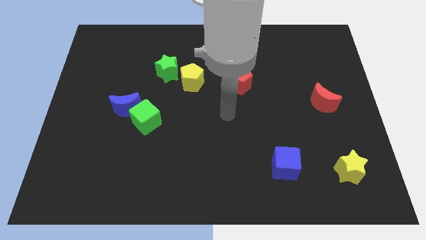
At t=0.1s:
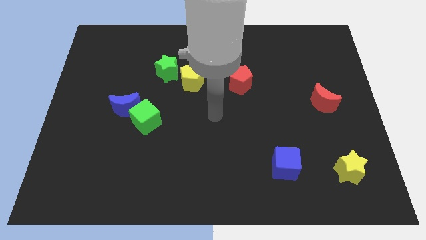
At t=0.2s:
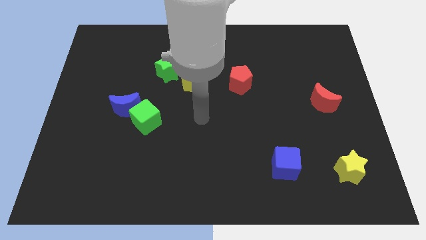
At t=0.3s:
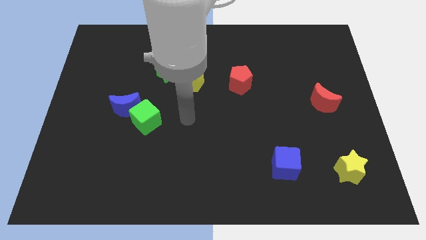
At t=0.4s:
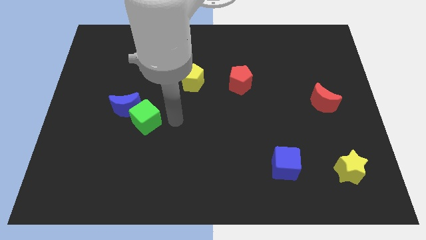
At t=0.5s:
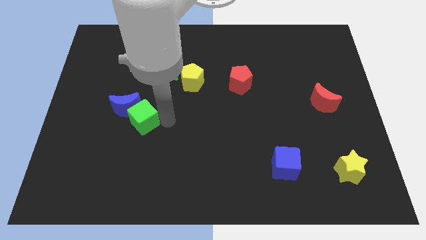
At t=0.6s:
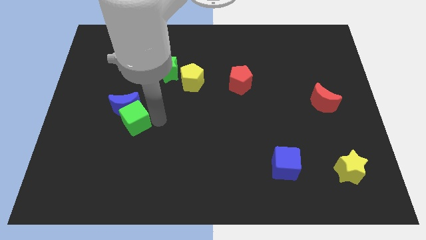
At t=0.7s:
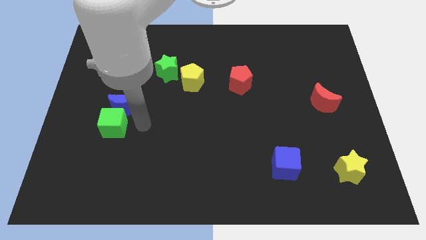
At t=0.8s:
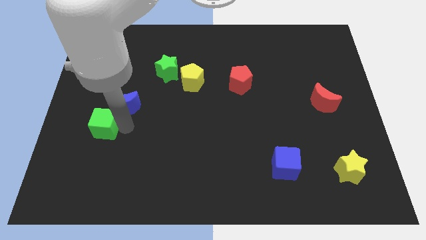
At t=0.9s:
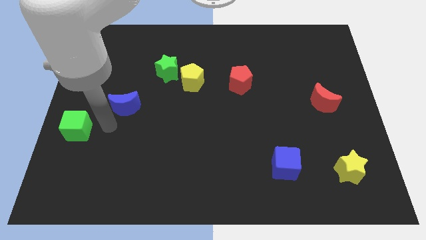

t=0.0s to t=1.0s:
pull the blue moon apart from the green cube

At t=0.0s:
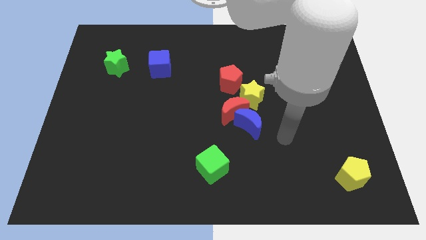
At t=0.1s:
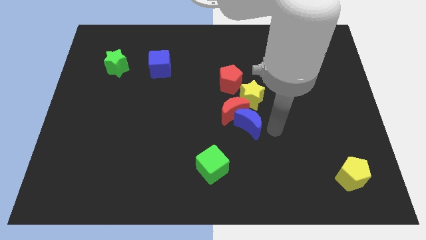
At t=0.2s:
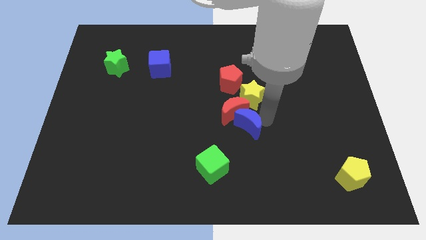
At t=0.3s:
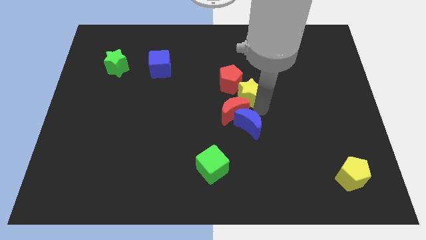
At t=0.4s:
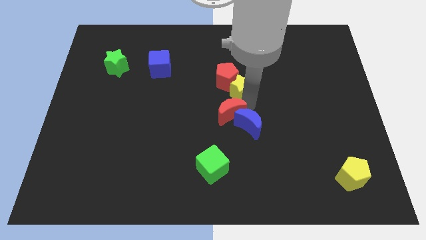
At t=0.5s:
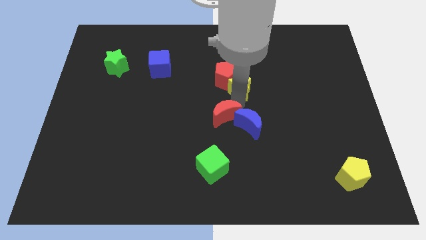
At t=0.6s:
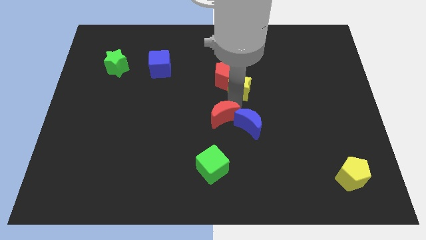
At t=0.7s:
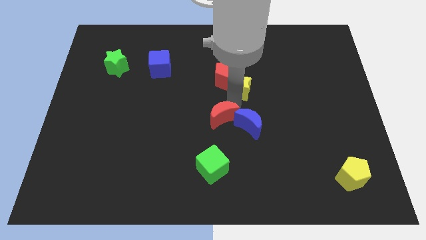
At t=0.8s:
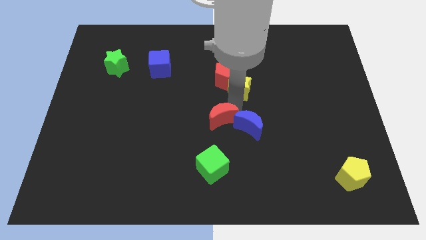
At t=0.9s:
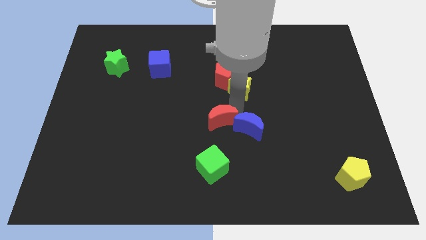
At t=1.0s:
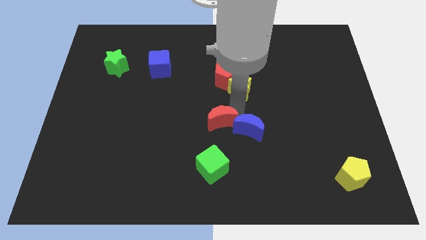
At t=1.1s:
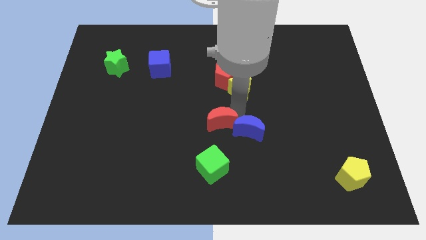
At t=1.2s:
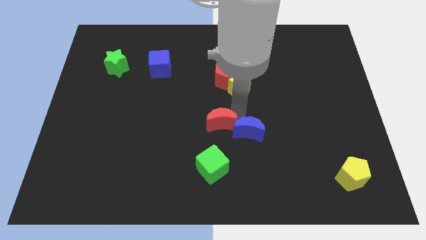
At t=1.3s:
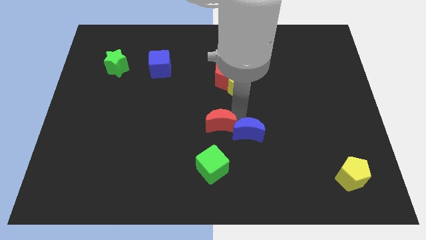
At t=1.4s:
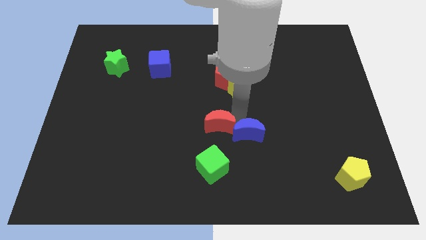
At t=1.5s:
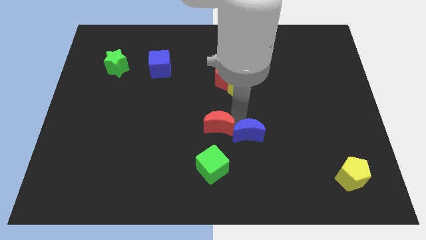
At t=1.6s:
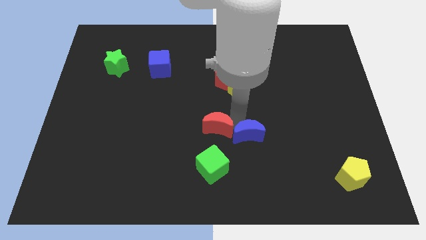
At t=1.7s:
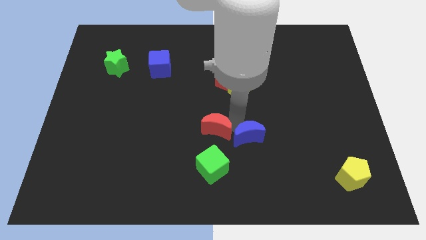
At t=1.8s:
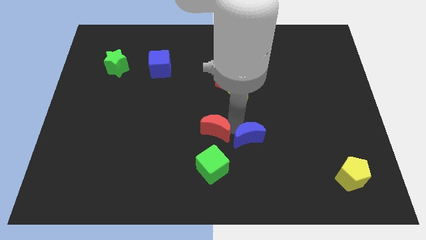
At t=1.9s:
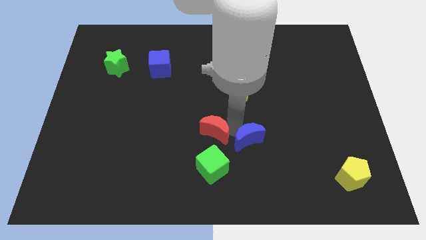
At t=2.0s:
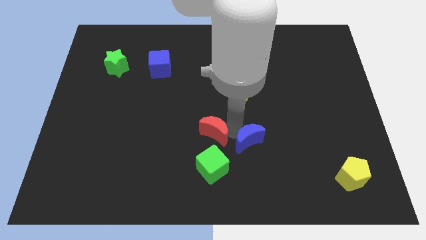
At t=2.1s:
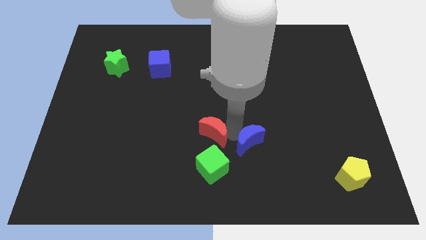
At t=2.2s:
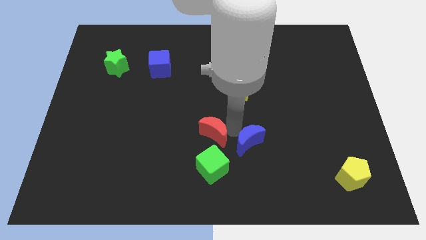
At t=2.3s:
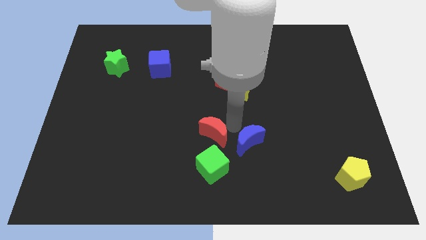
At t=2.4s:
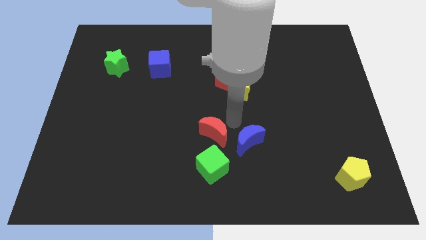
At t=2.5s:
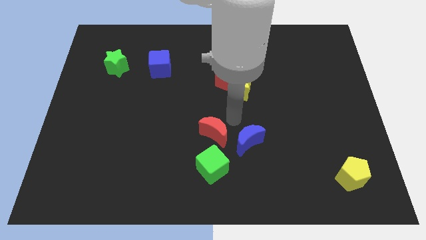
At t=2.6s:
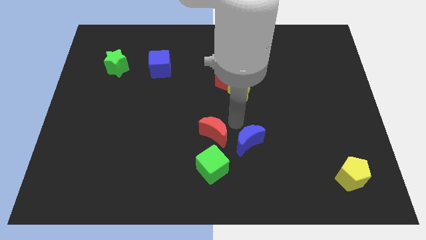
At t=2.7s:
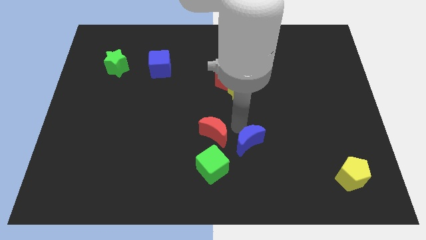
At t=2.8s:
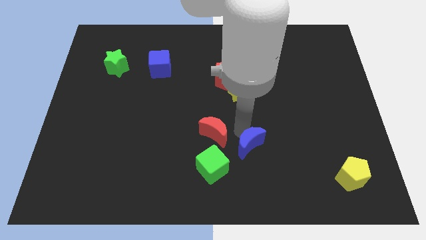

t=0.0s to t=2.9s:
separate the blue moon from the red moon and yellow star

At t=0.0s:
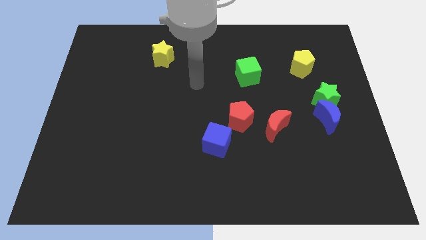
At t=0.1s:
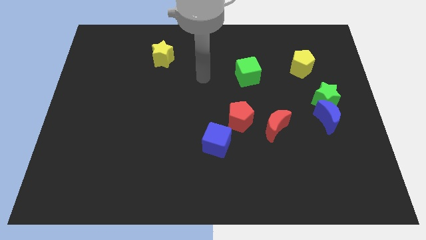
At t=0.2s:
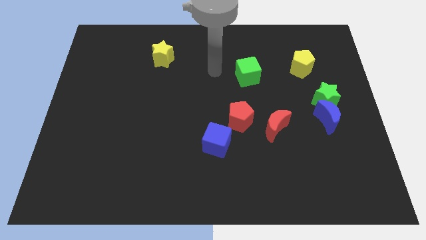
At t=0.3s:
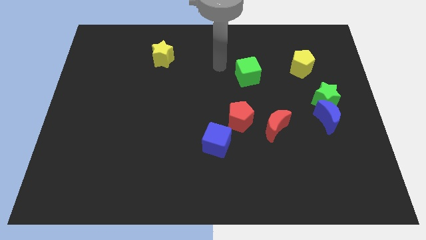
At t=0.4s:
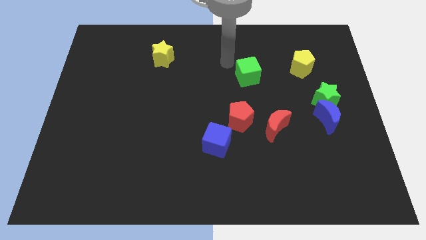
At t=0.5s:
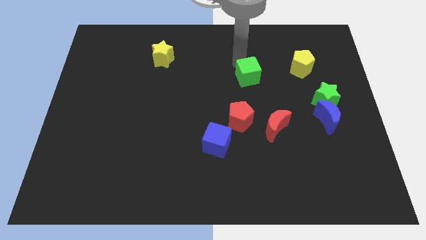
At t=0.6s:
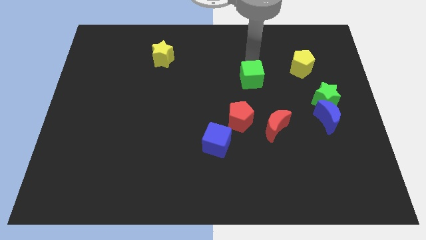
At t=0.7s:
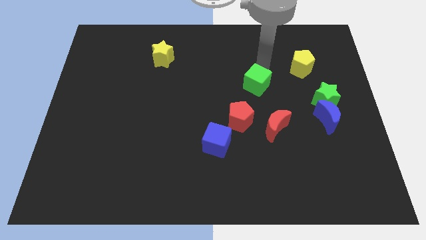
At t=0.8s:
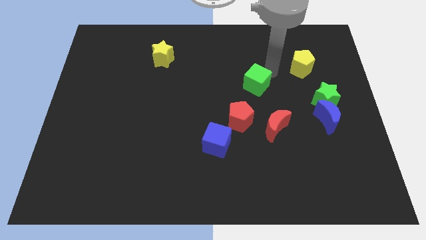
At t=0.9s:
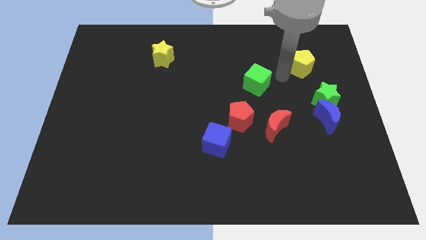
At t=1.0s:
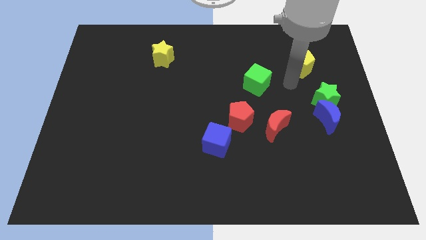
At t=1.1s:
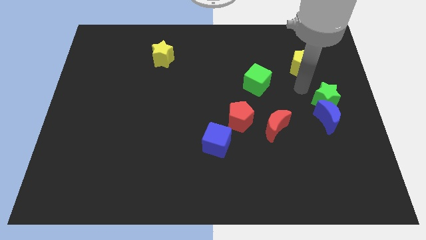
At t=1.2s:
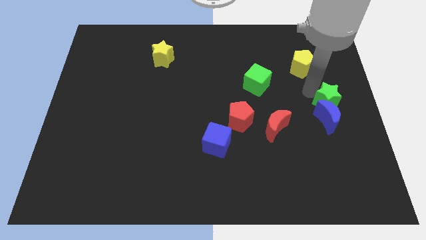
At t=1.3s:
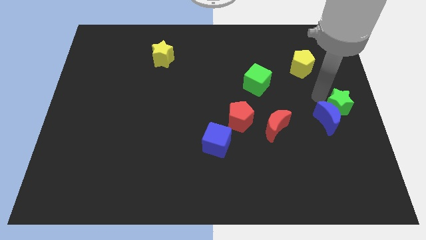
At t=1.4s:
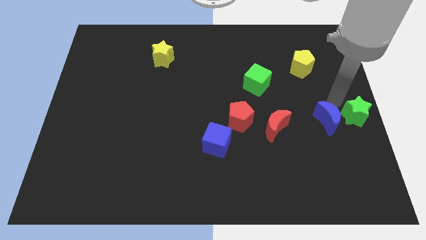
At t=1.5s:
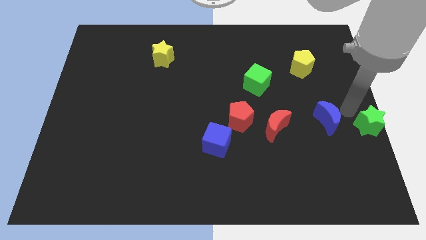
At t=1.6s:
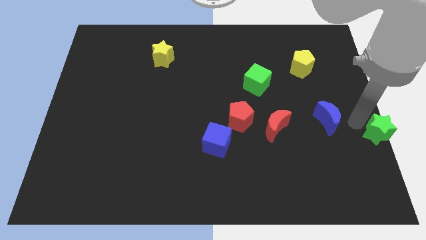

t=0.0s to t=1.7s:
move the blue moon away from the green star

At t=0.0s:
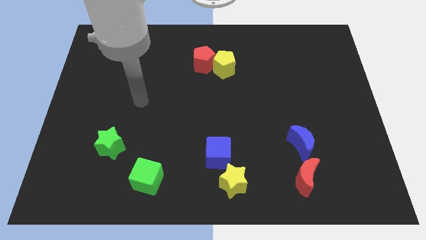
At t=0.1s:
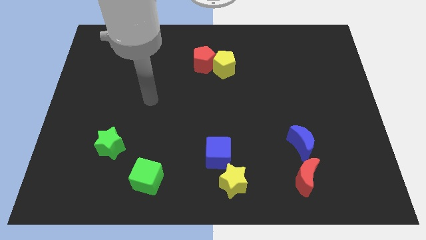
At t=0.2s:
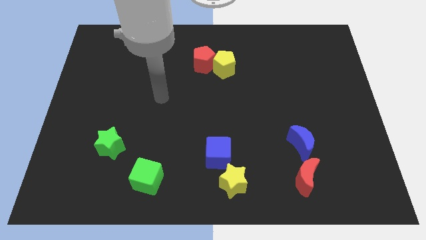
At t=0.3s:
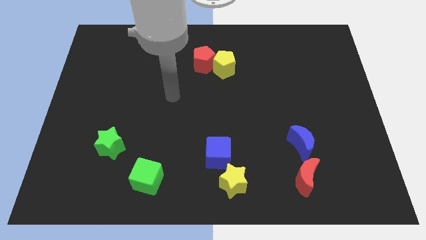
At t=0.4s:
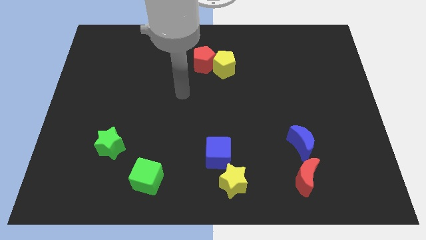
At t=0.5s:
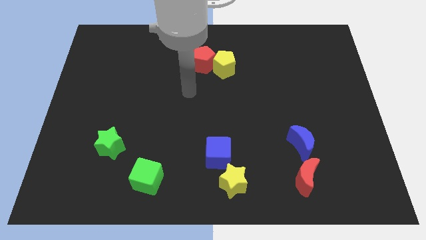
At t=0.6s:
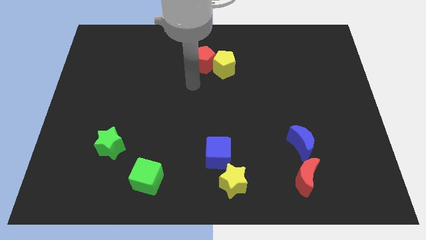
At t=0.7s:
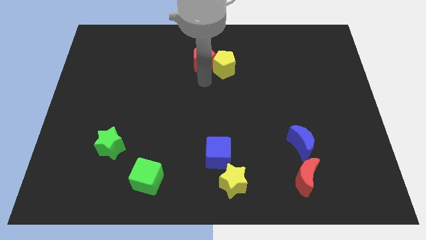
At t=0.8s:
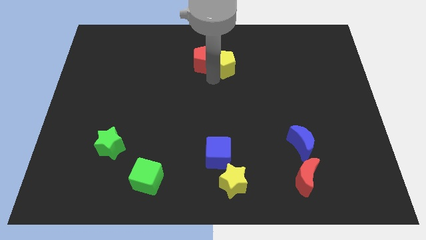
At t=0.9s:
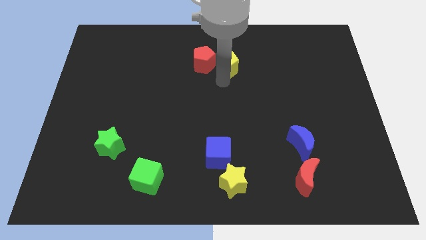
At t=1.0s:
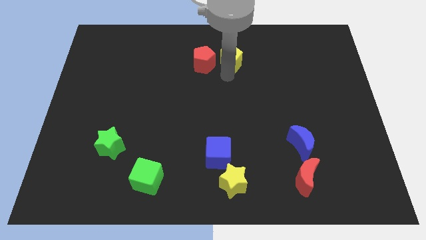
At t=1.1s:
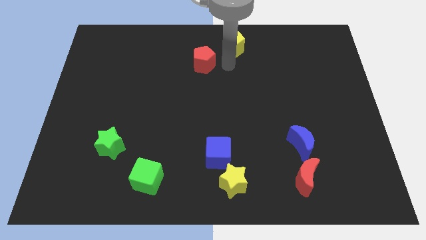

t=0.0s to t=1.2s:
move the red pentagon away from the yellow pentagon

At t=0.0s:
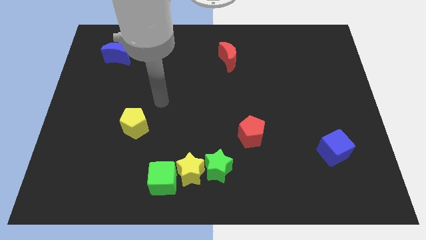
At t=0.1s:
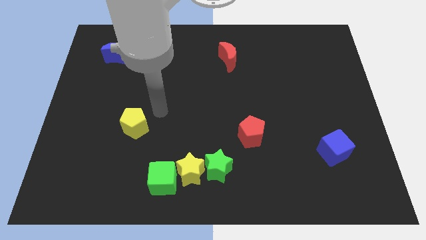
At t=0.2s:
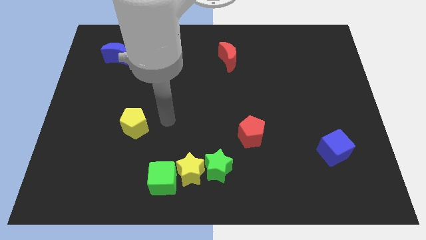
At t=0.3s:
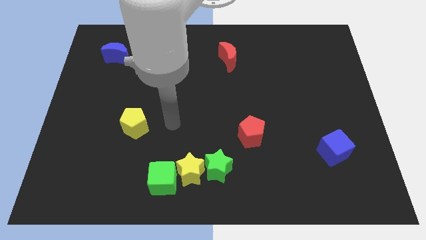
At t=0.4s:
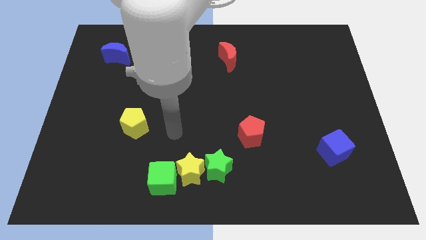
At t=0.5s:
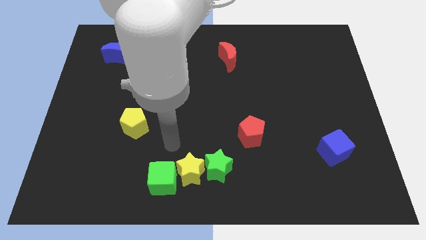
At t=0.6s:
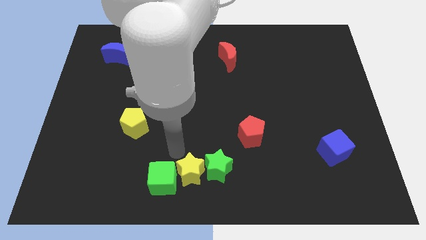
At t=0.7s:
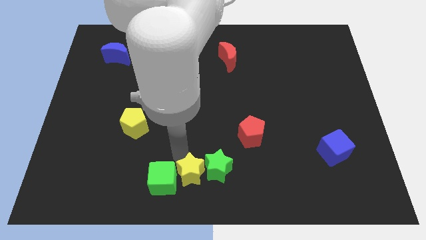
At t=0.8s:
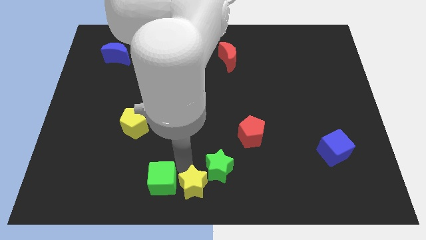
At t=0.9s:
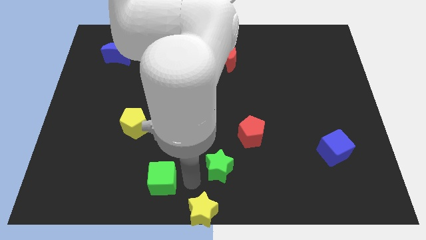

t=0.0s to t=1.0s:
move the green star away from the yellow star

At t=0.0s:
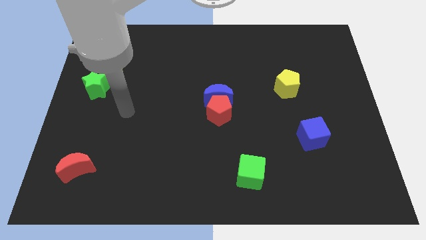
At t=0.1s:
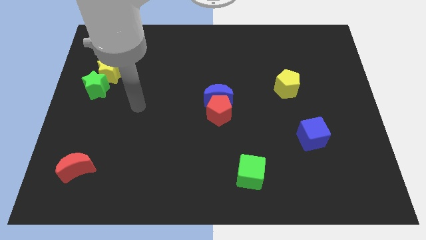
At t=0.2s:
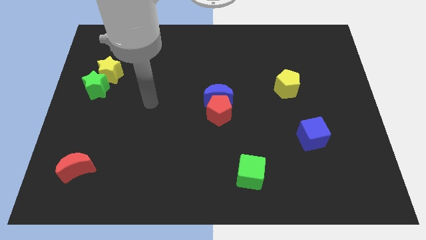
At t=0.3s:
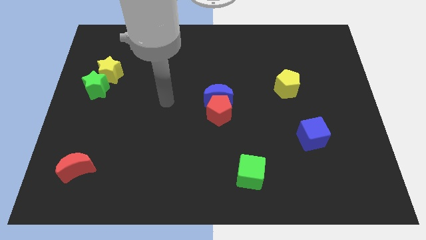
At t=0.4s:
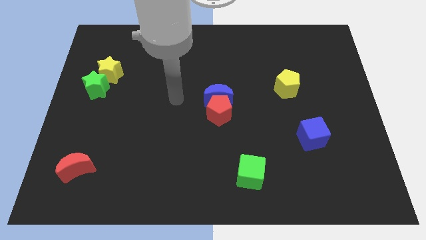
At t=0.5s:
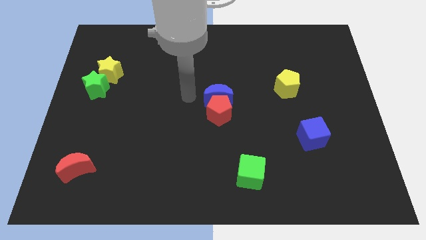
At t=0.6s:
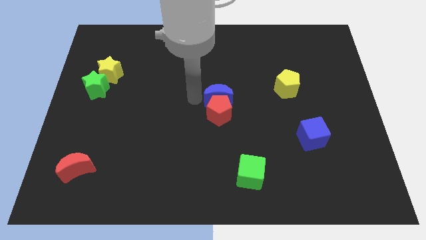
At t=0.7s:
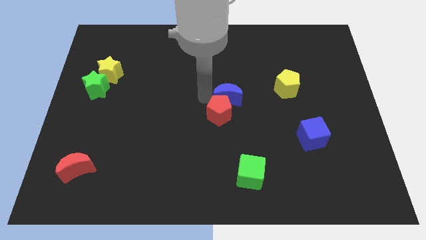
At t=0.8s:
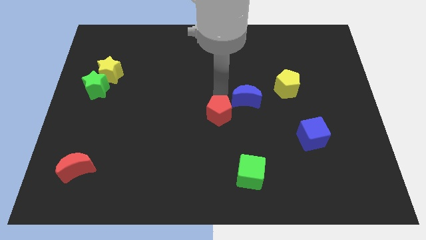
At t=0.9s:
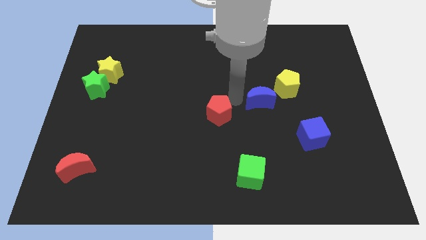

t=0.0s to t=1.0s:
separate the red pentagon from the blue moon

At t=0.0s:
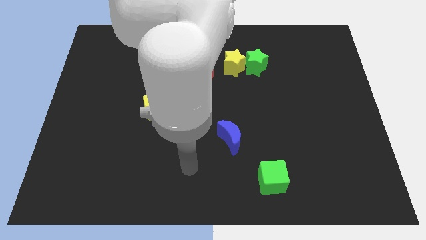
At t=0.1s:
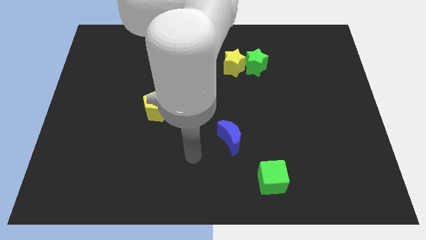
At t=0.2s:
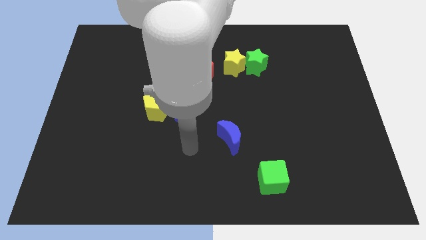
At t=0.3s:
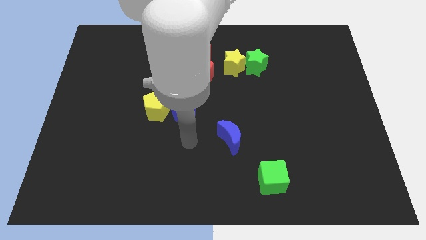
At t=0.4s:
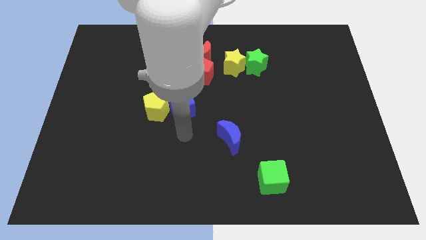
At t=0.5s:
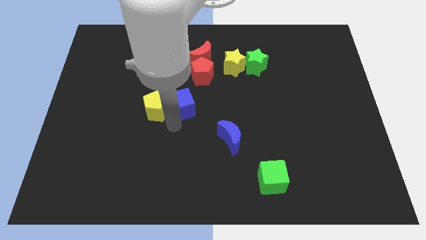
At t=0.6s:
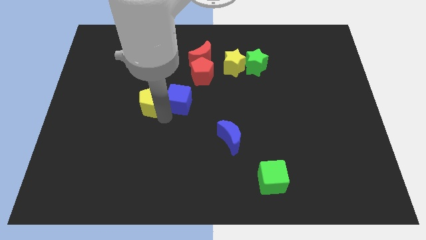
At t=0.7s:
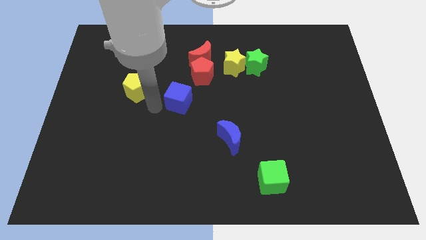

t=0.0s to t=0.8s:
pull the blue cube apart from the yellow pentagon
